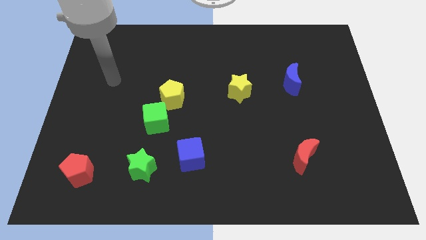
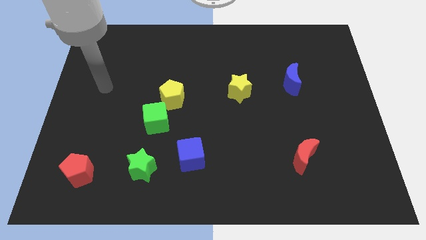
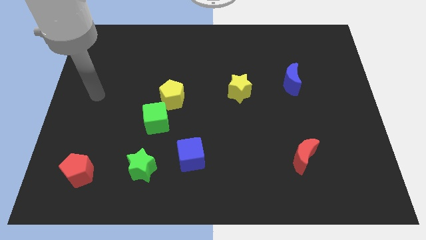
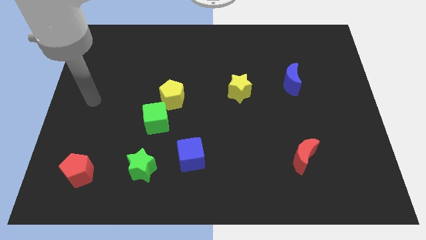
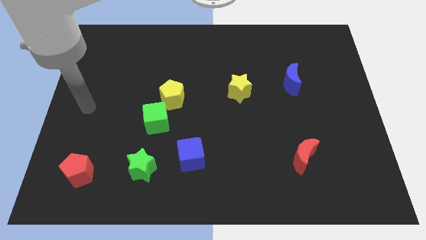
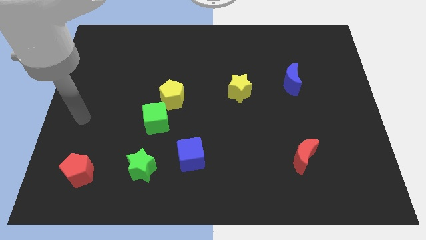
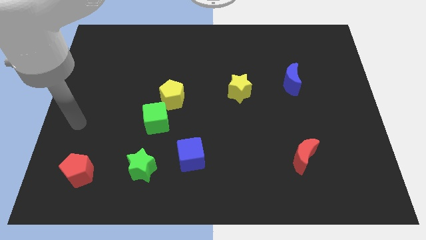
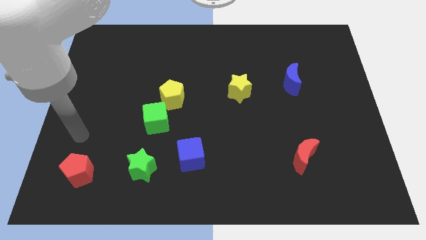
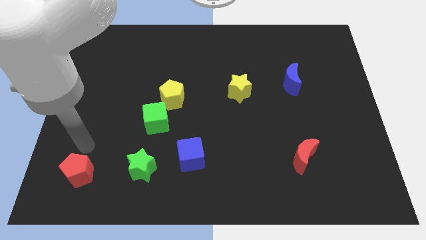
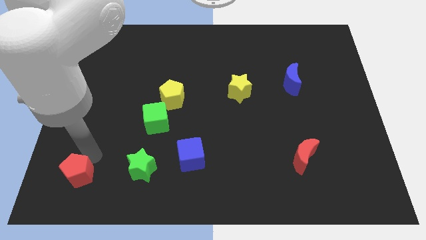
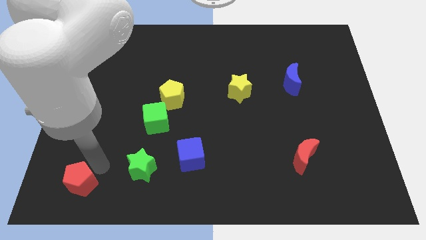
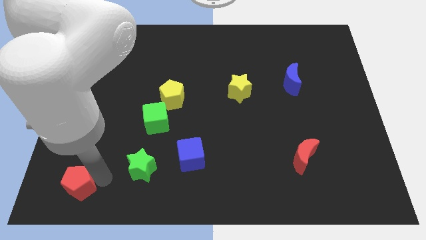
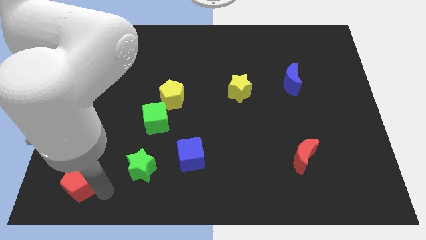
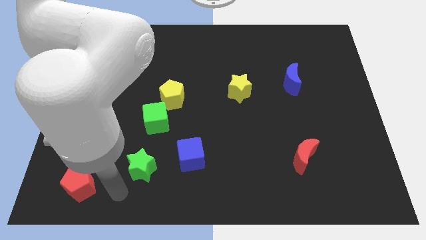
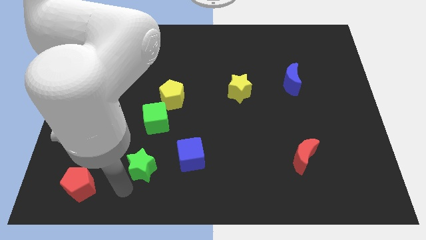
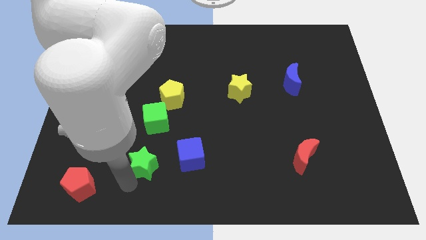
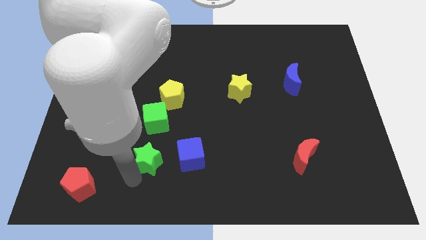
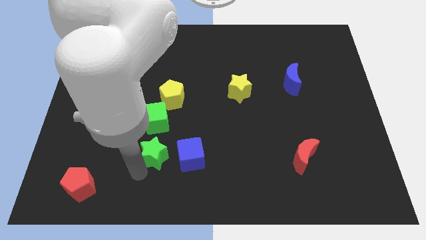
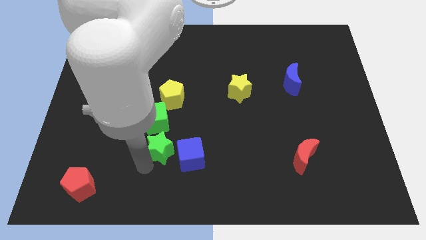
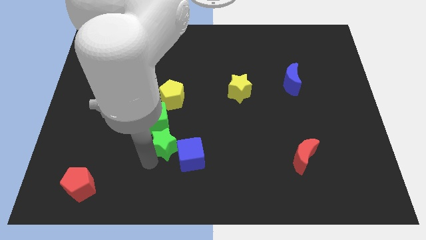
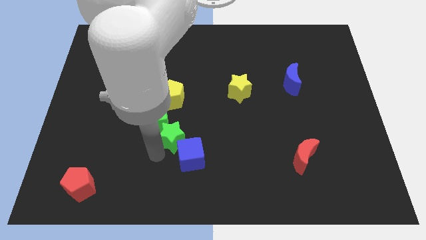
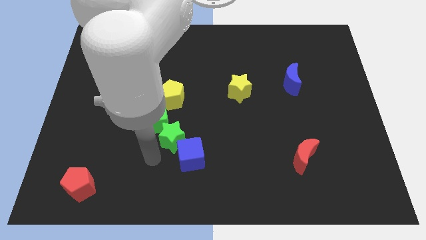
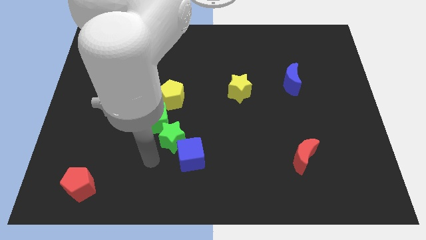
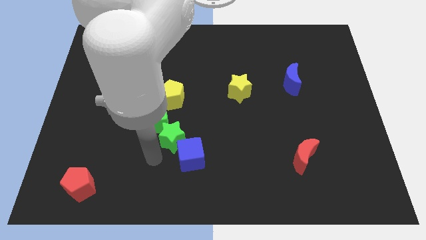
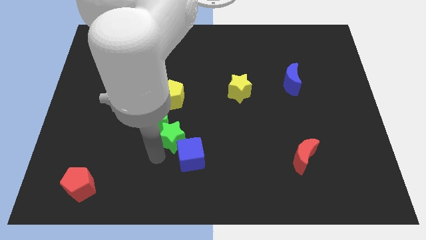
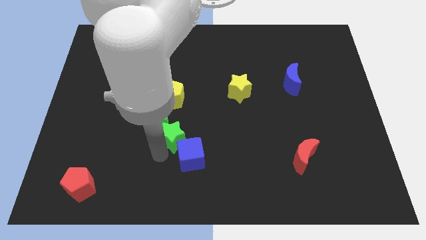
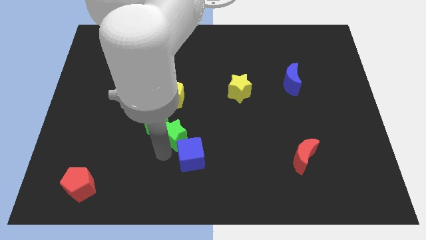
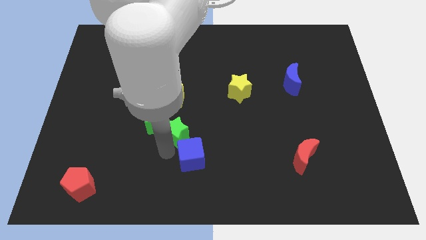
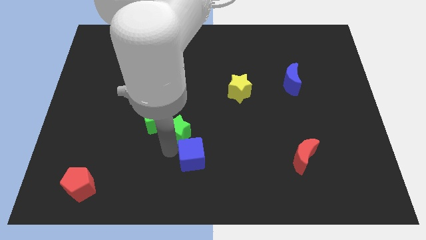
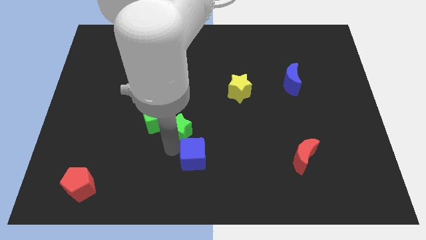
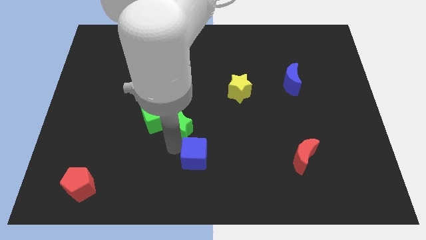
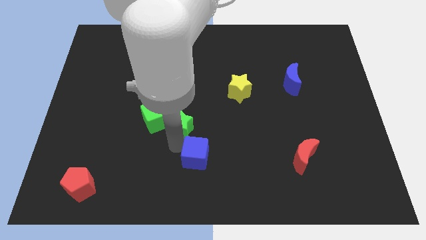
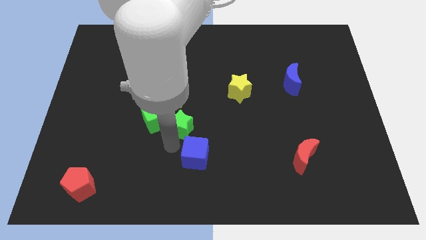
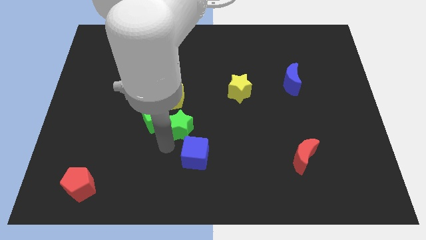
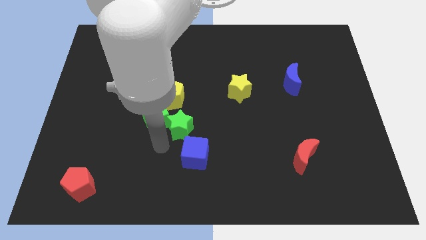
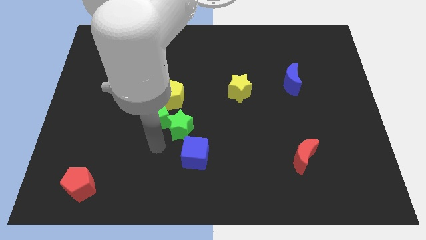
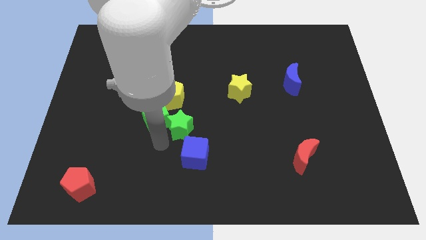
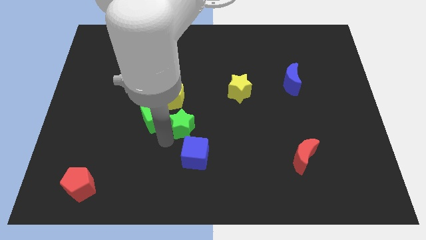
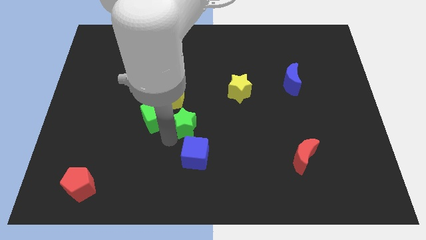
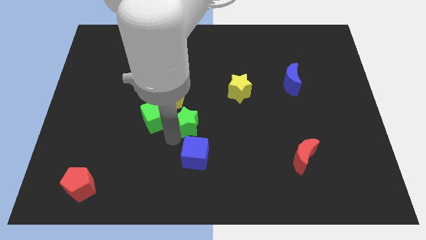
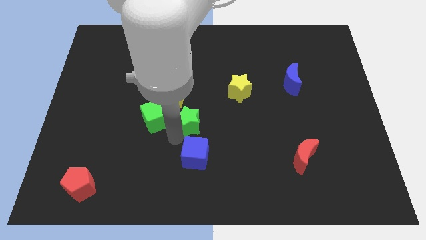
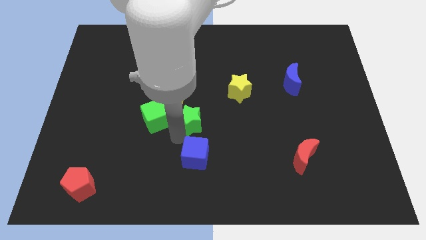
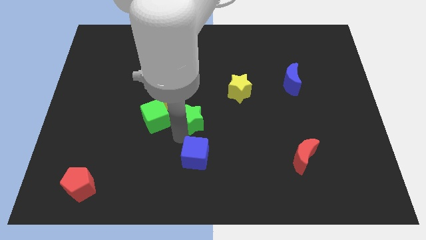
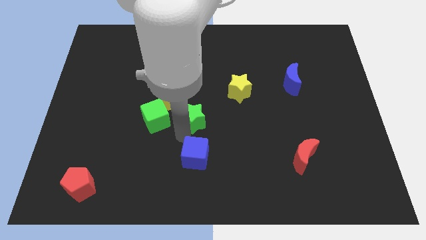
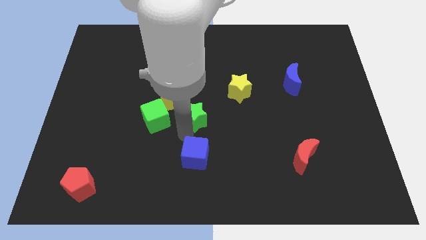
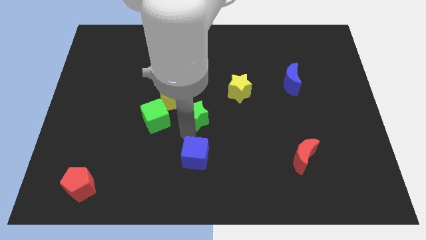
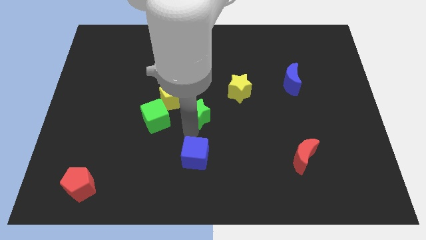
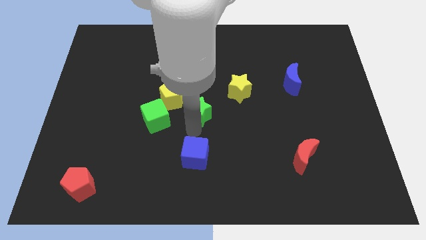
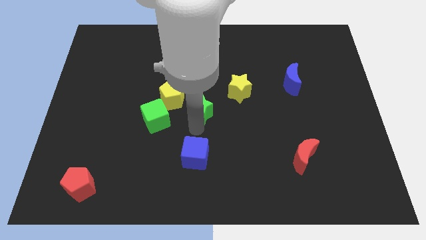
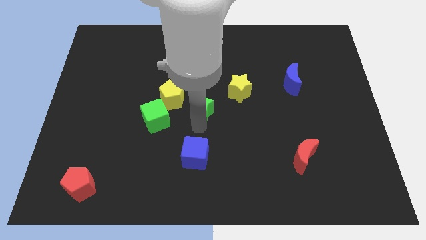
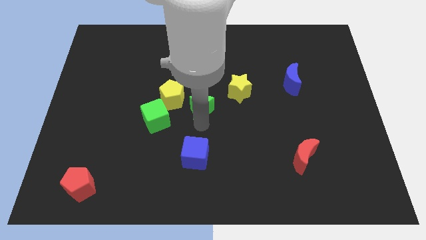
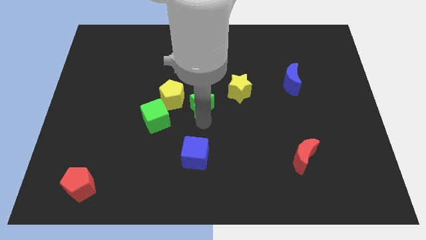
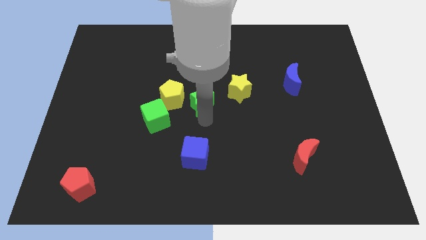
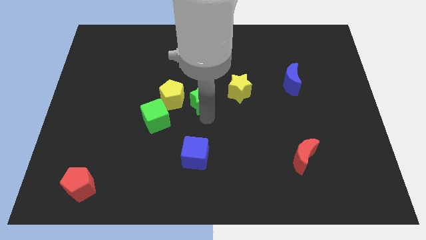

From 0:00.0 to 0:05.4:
move the green star diagonally up and to the right of the green cube

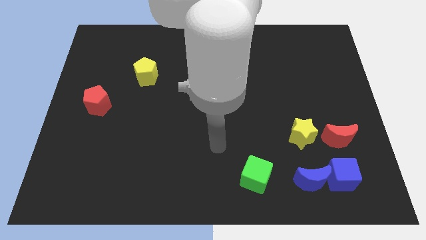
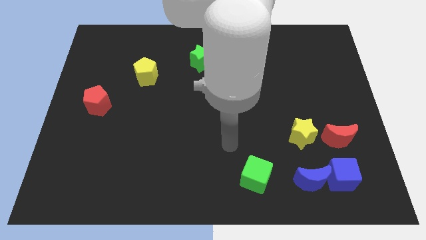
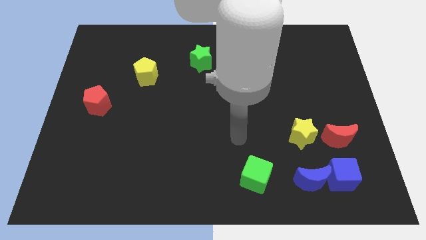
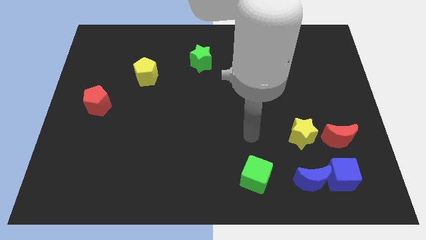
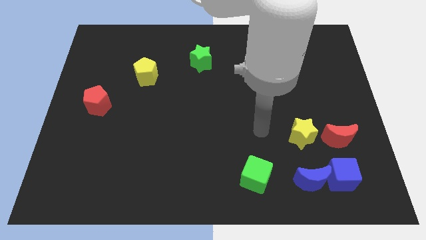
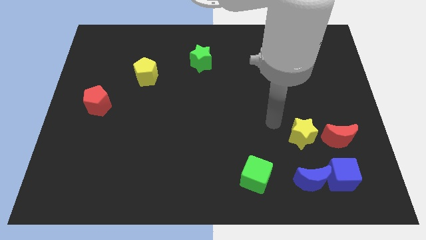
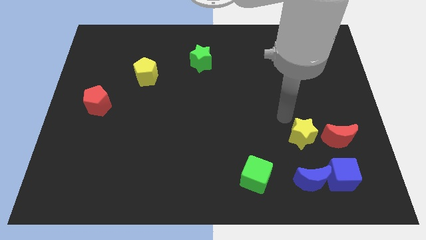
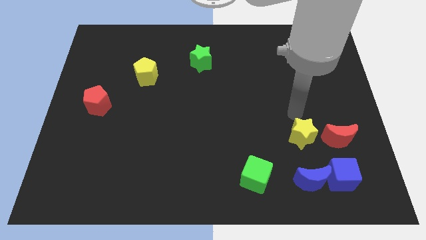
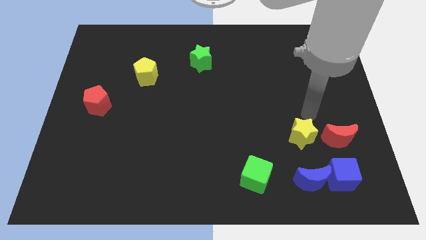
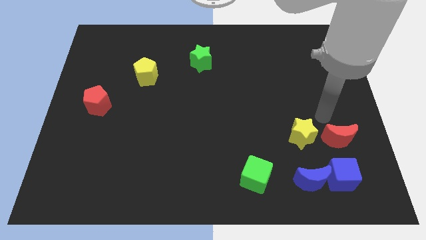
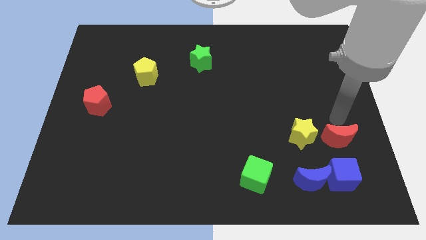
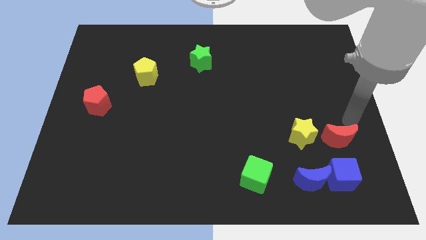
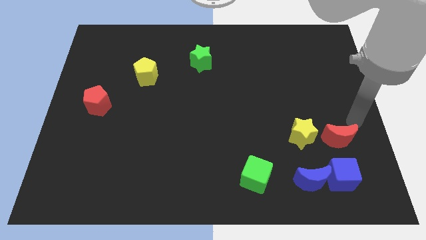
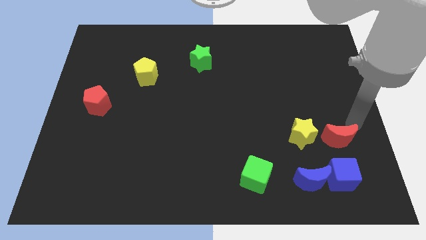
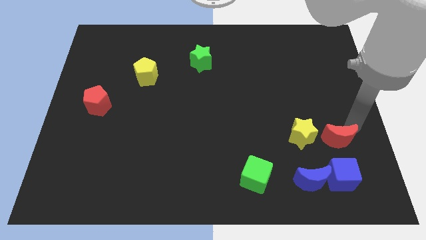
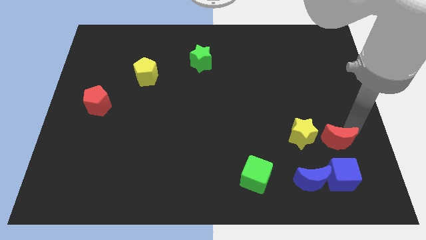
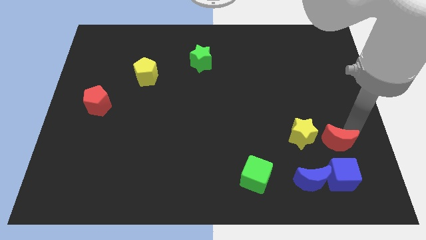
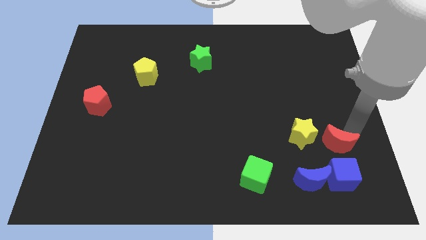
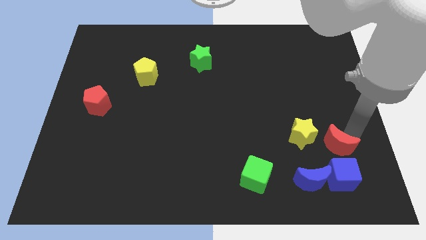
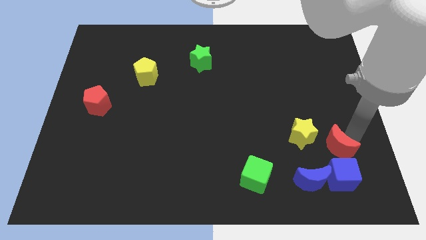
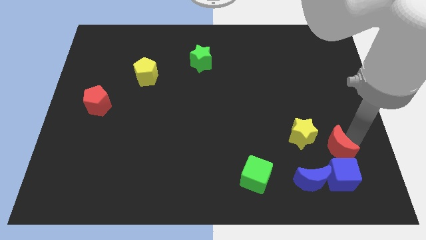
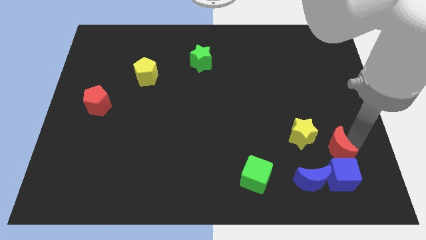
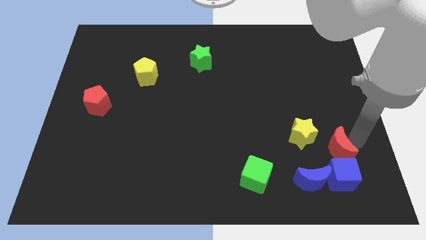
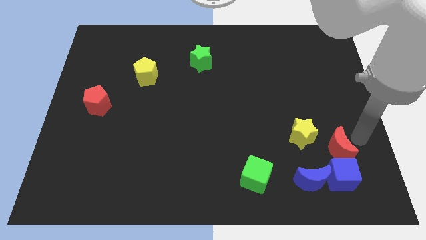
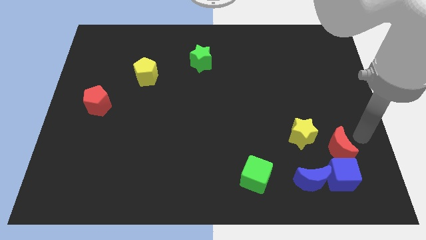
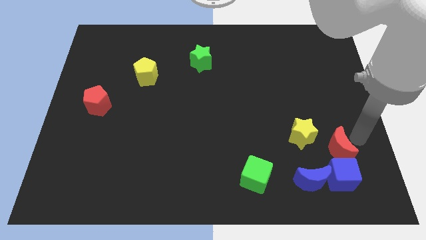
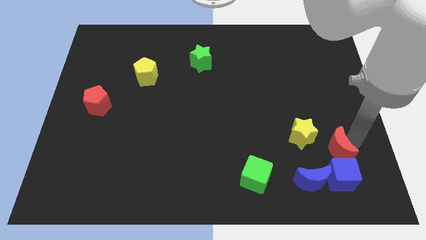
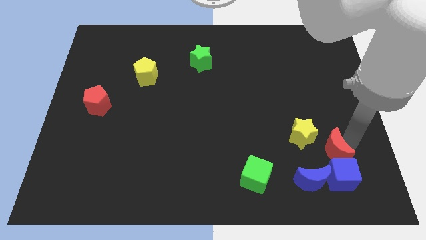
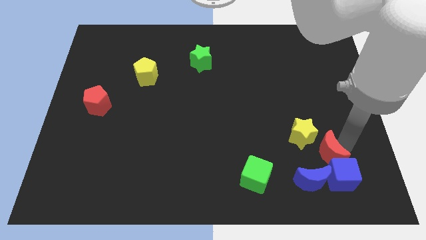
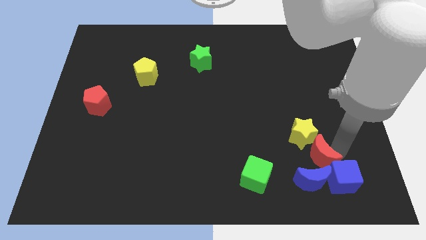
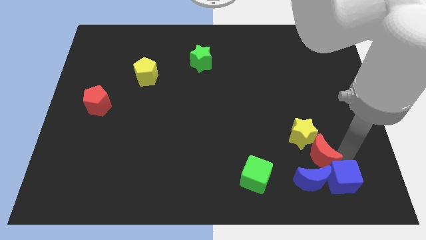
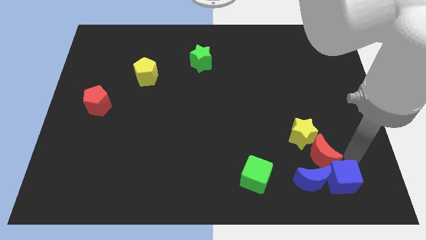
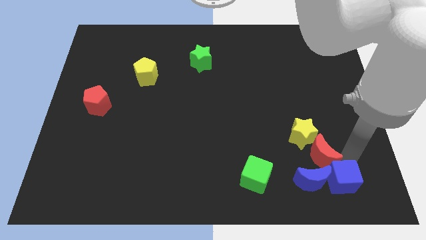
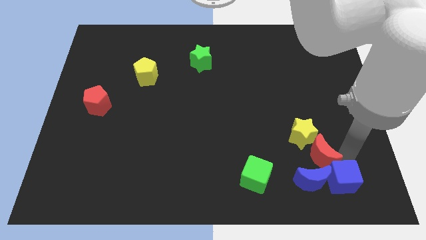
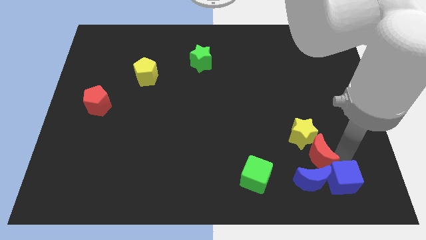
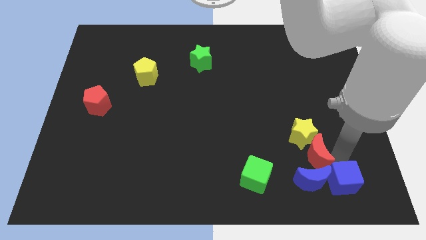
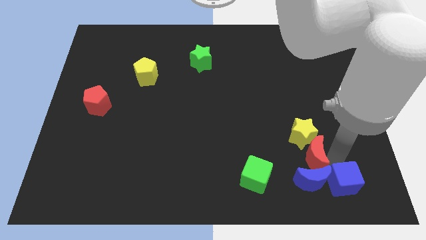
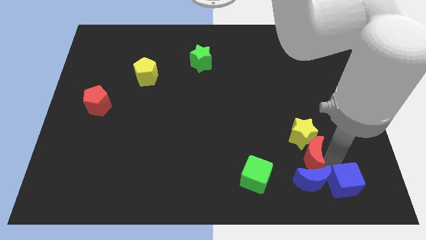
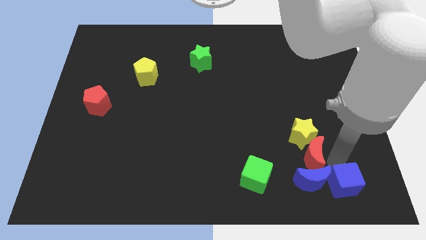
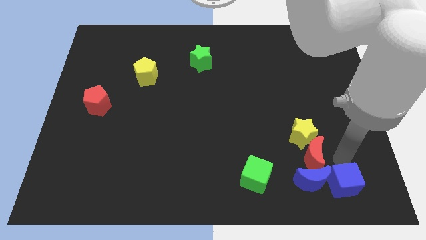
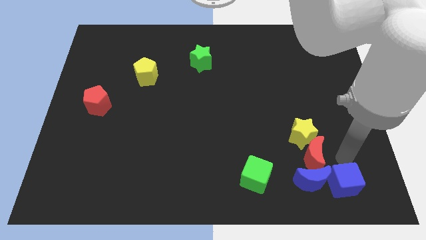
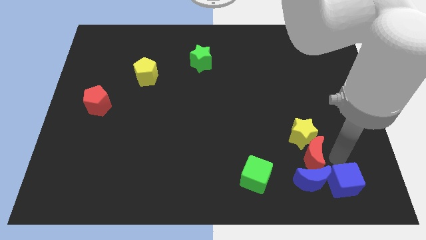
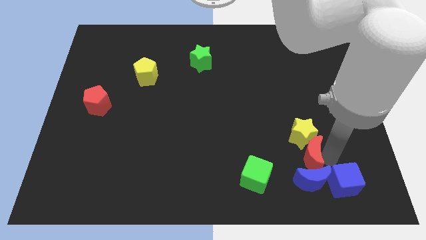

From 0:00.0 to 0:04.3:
put the red moon diagonally down and to the left of the yellow star
